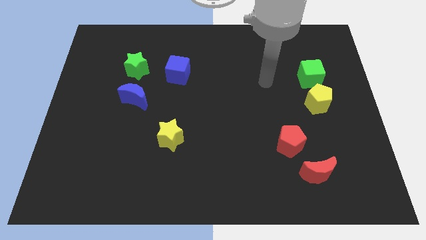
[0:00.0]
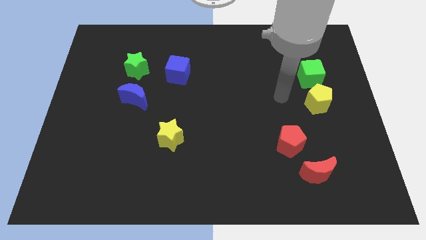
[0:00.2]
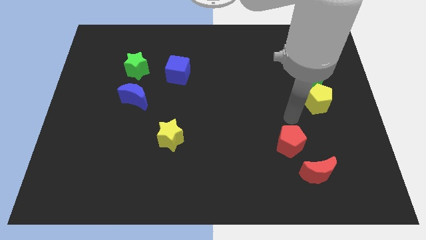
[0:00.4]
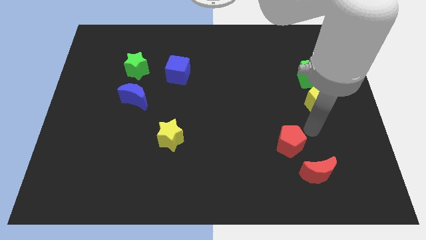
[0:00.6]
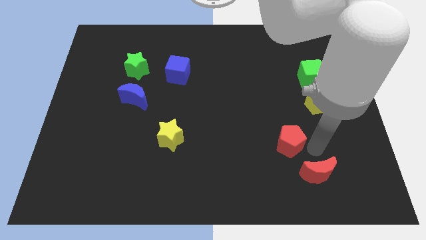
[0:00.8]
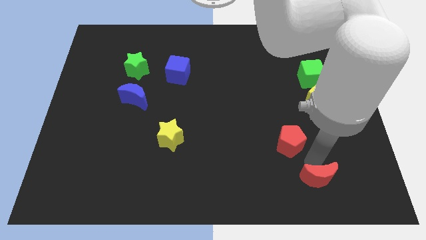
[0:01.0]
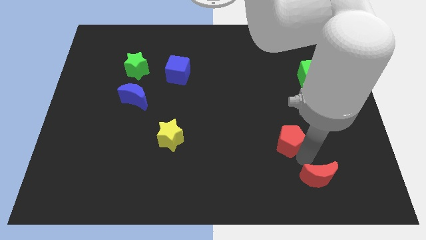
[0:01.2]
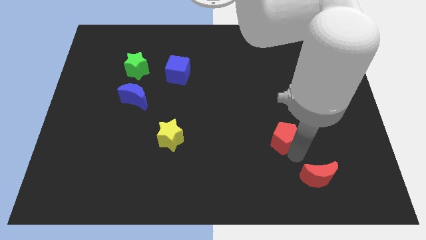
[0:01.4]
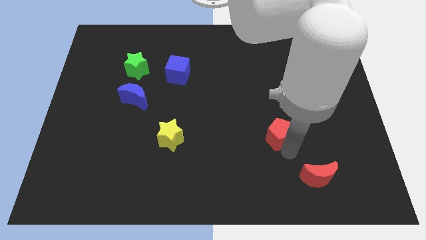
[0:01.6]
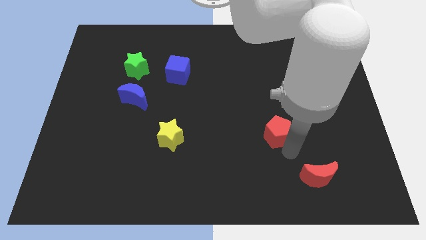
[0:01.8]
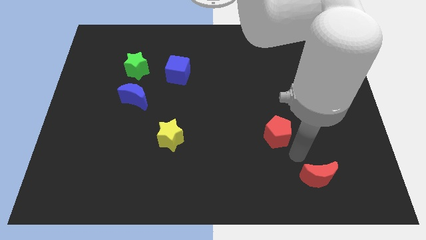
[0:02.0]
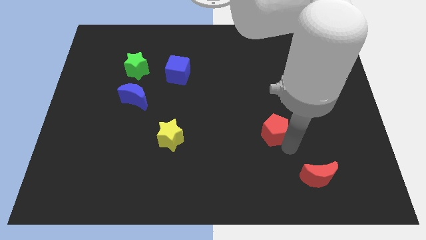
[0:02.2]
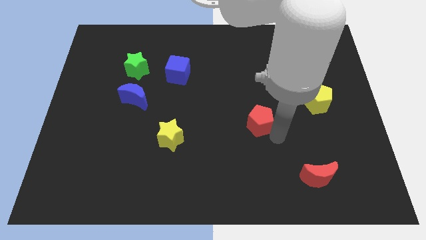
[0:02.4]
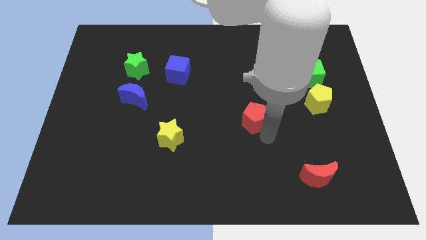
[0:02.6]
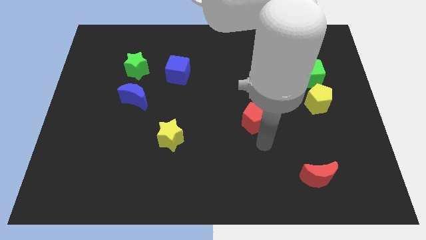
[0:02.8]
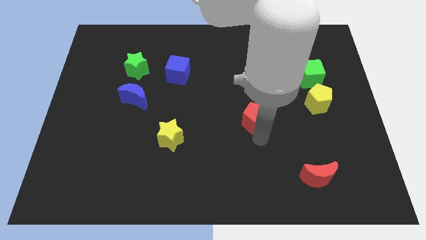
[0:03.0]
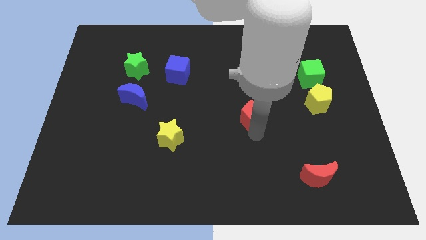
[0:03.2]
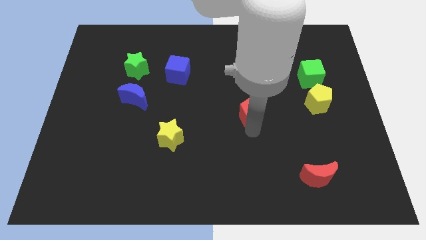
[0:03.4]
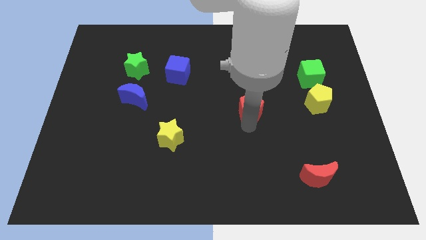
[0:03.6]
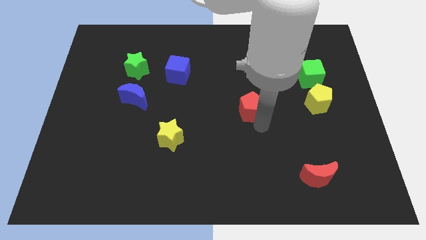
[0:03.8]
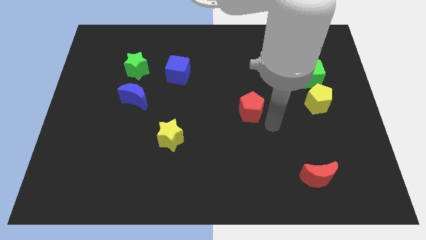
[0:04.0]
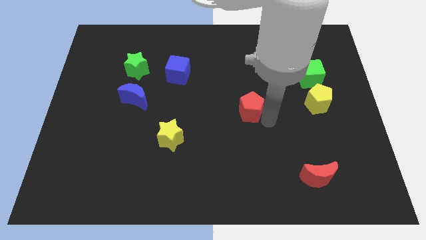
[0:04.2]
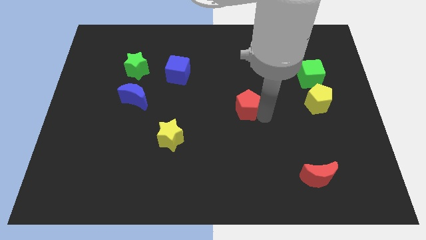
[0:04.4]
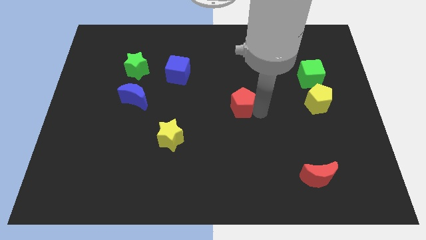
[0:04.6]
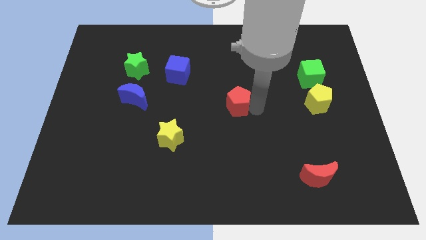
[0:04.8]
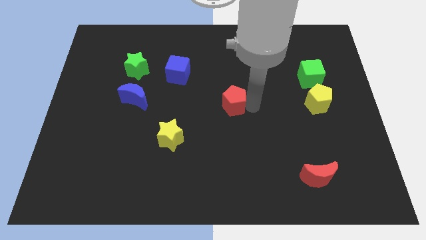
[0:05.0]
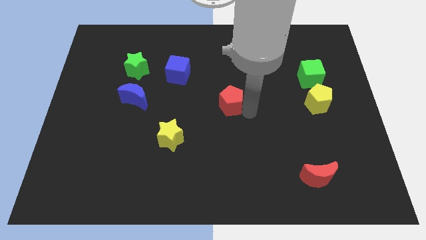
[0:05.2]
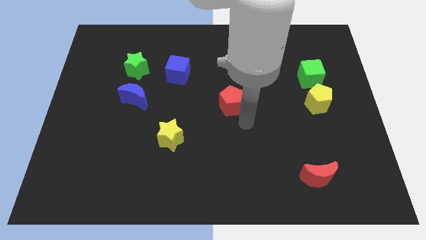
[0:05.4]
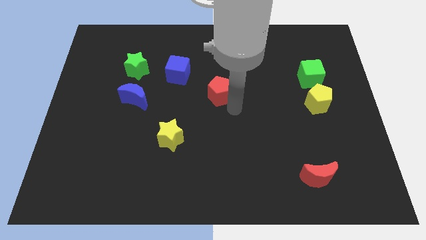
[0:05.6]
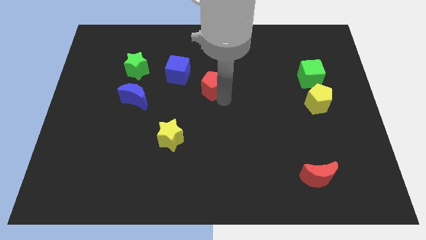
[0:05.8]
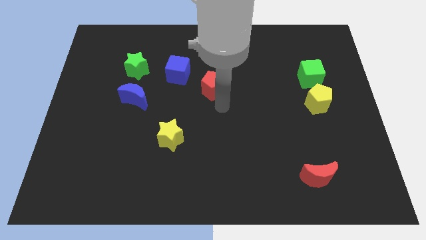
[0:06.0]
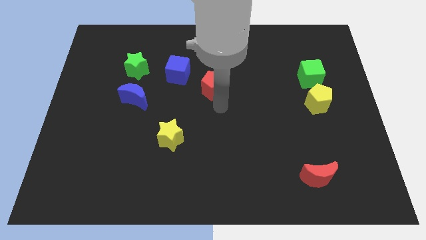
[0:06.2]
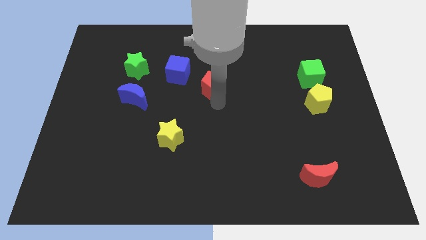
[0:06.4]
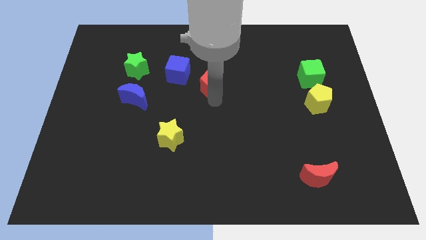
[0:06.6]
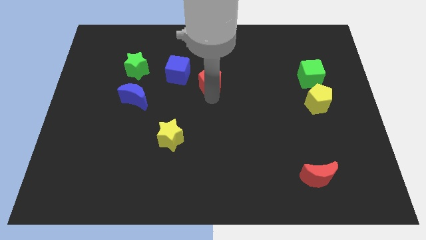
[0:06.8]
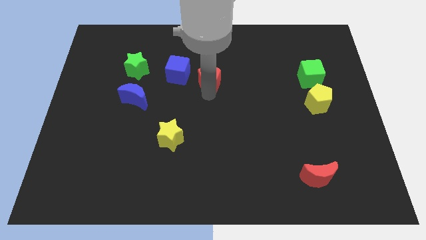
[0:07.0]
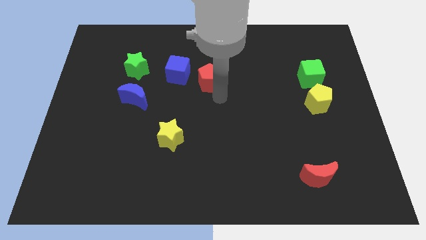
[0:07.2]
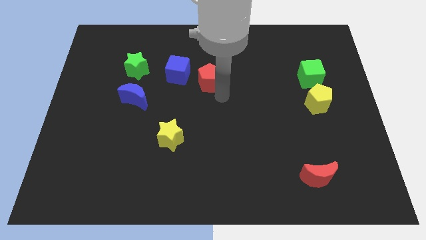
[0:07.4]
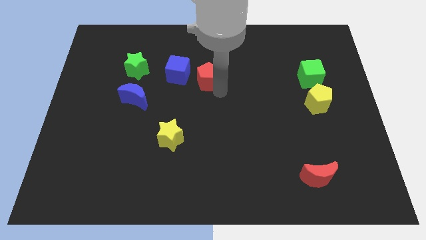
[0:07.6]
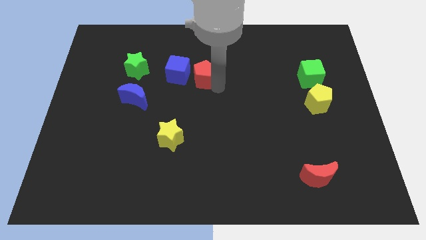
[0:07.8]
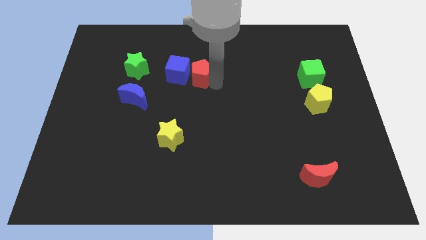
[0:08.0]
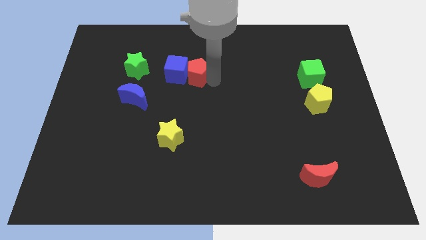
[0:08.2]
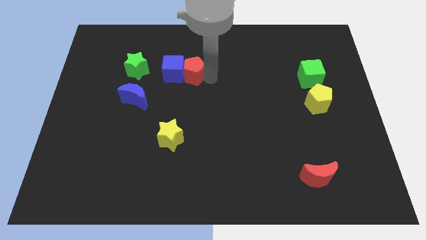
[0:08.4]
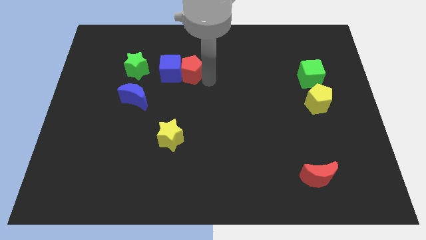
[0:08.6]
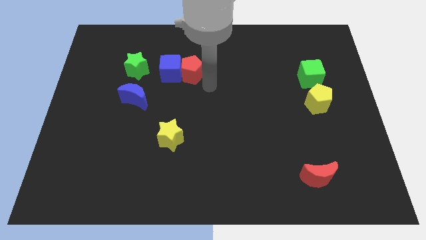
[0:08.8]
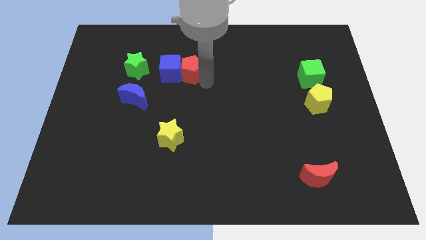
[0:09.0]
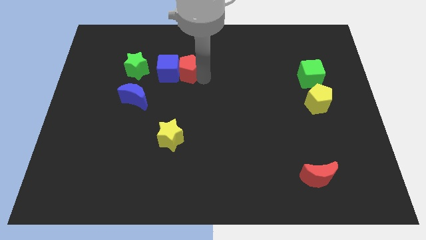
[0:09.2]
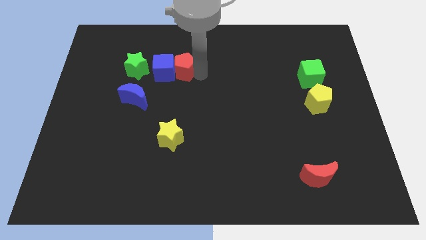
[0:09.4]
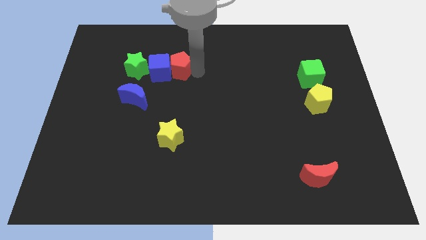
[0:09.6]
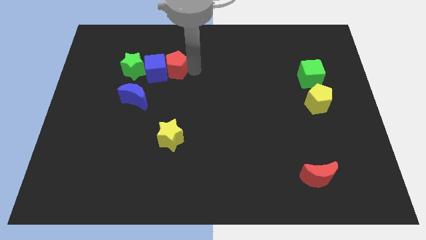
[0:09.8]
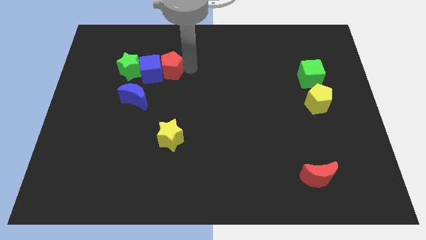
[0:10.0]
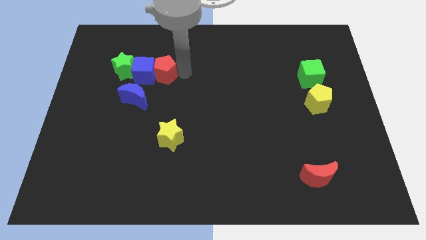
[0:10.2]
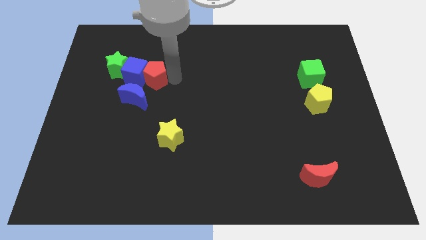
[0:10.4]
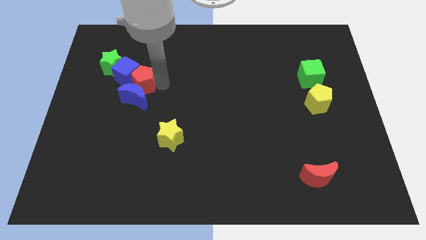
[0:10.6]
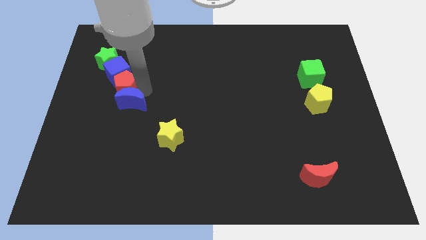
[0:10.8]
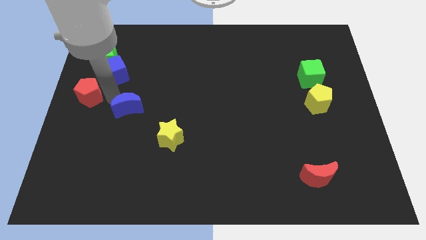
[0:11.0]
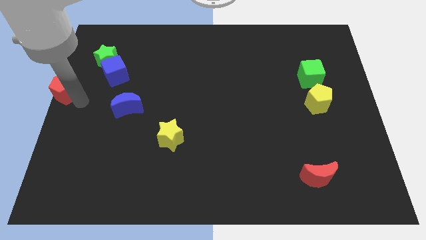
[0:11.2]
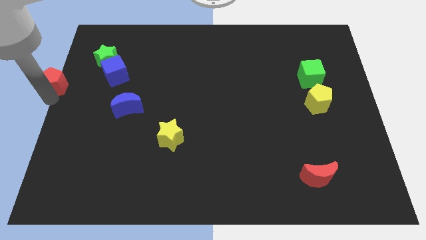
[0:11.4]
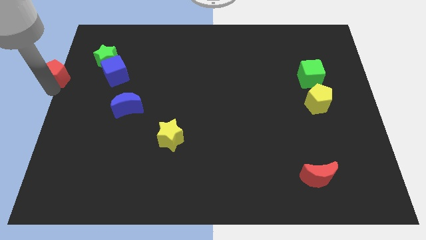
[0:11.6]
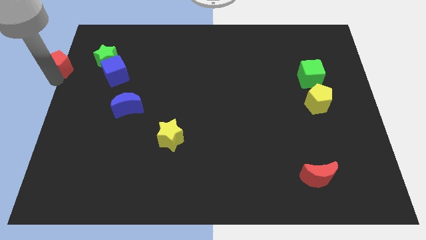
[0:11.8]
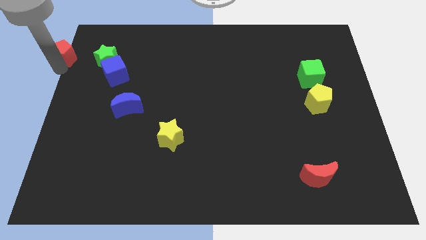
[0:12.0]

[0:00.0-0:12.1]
slide the red pentagon to the top left
